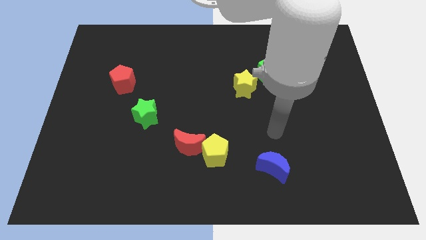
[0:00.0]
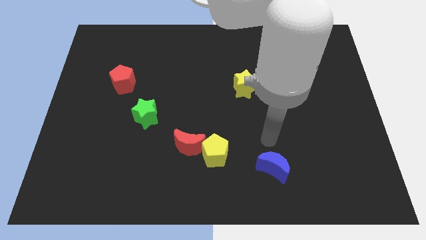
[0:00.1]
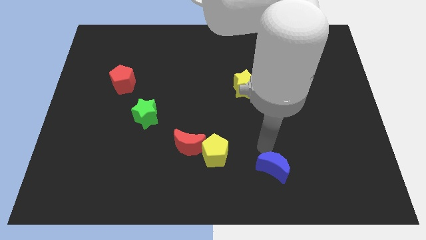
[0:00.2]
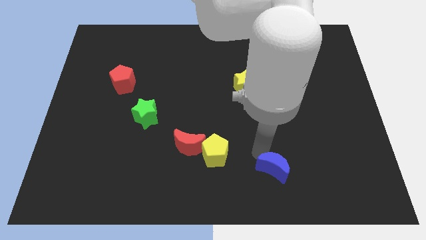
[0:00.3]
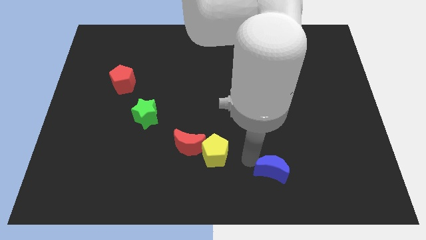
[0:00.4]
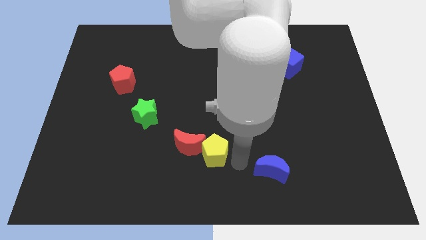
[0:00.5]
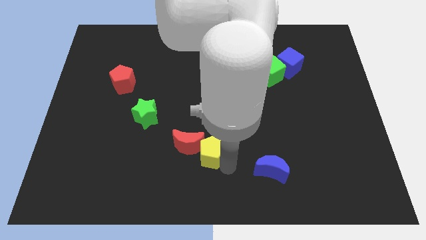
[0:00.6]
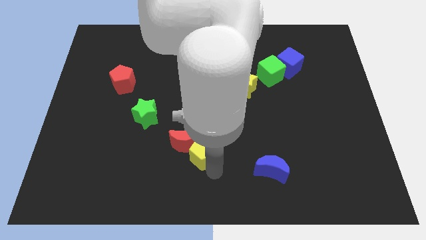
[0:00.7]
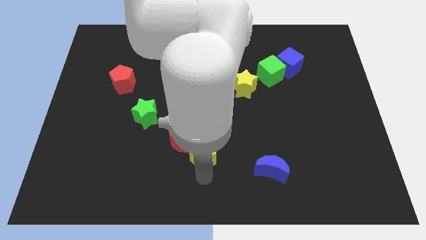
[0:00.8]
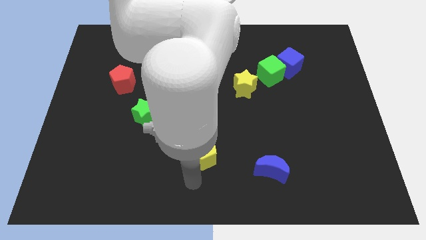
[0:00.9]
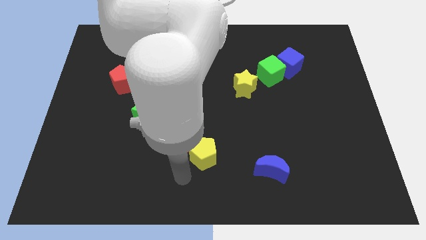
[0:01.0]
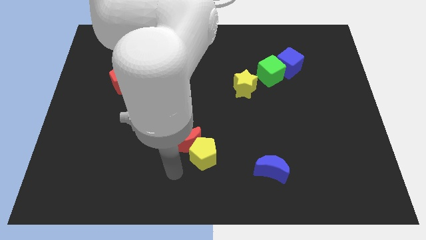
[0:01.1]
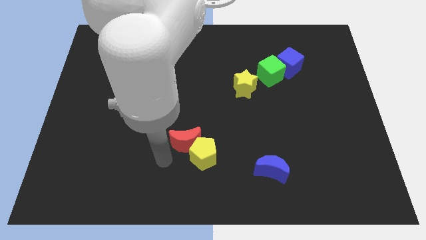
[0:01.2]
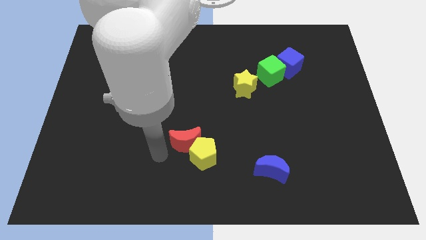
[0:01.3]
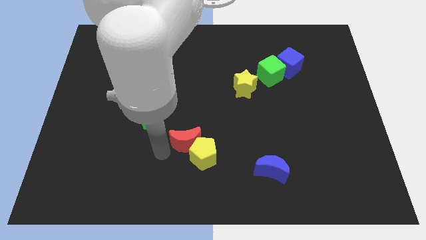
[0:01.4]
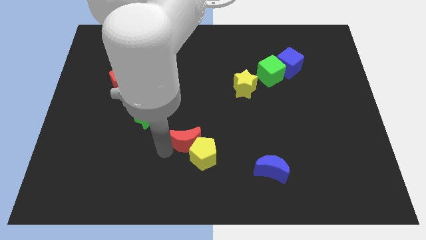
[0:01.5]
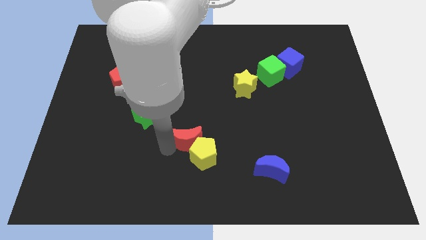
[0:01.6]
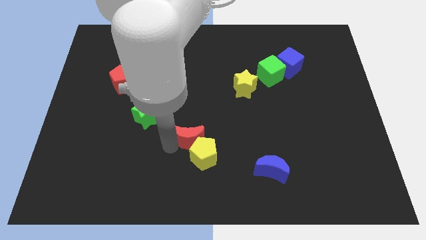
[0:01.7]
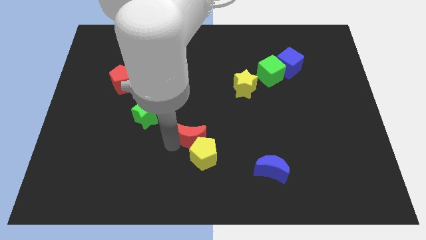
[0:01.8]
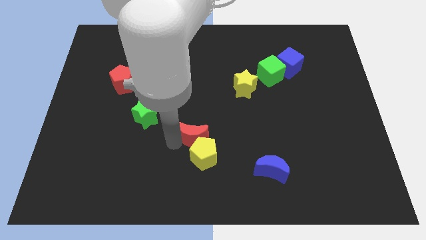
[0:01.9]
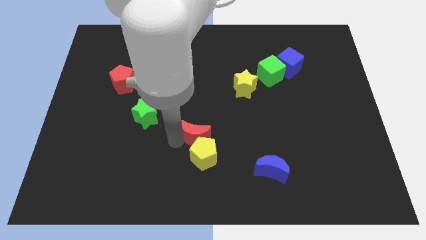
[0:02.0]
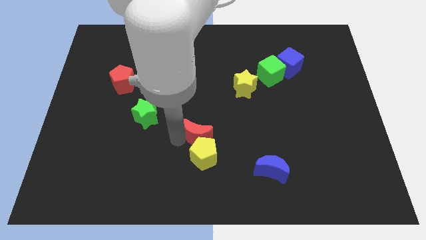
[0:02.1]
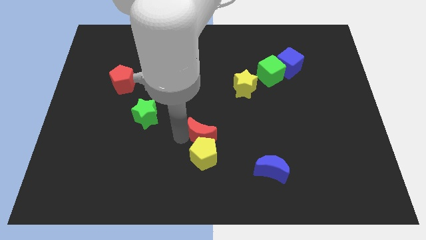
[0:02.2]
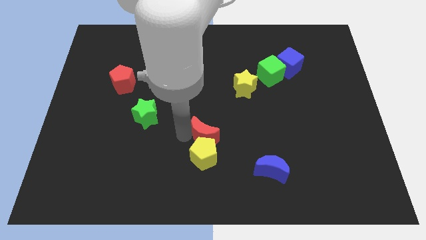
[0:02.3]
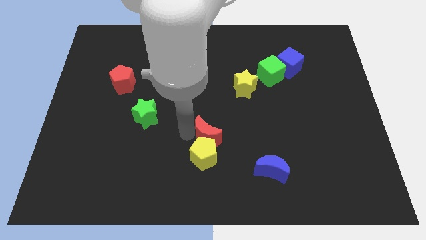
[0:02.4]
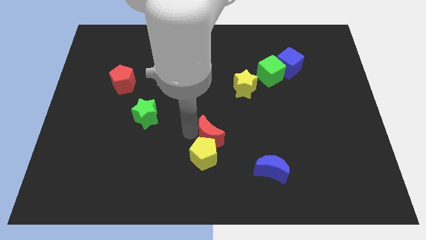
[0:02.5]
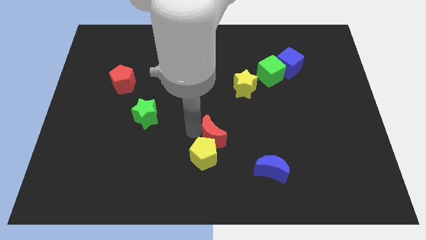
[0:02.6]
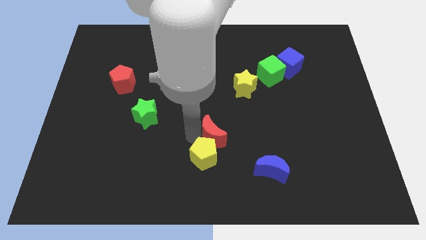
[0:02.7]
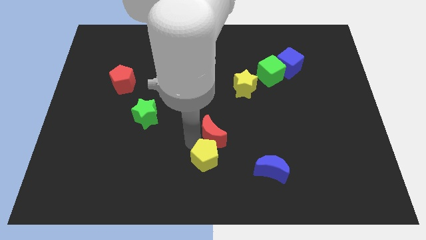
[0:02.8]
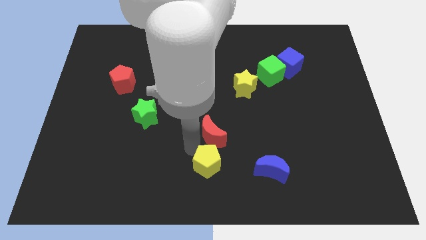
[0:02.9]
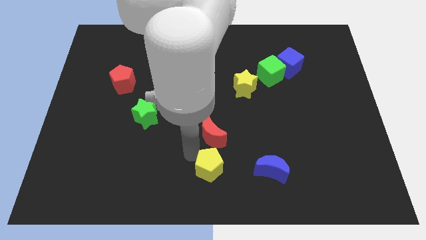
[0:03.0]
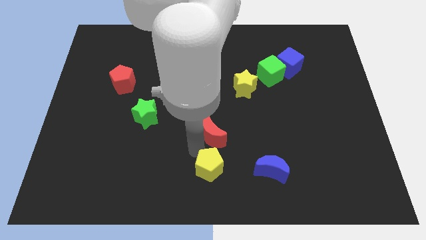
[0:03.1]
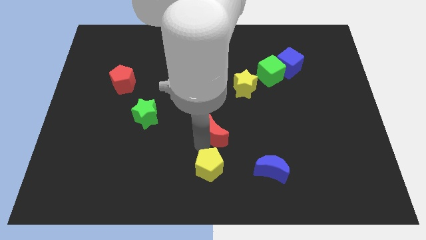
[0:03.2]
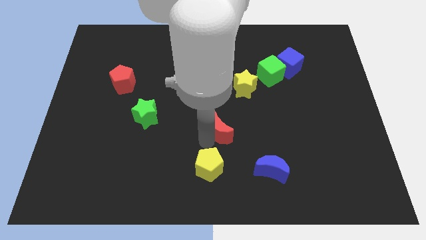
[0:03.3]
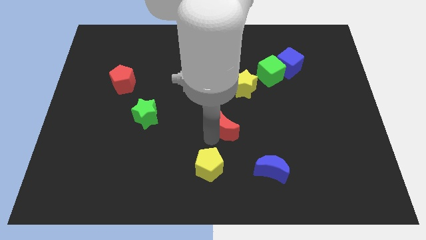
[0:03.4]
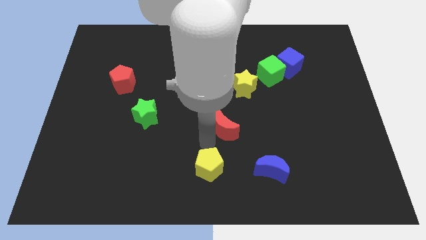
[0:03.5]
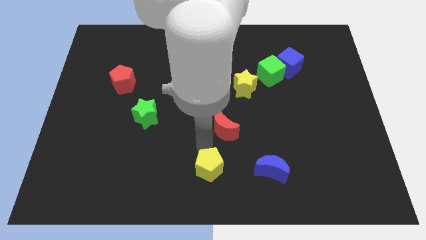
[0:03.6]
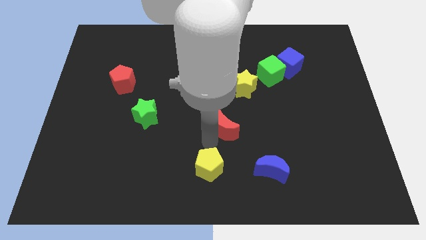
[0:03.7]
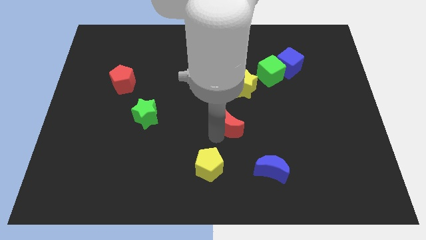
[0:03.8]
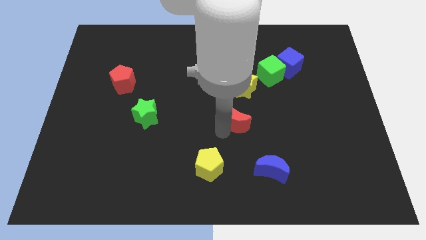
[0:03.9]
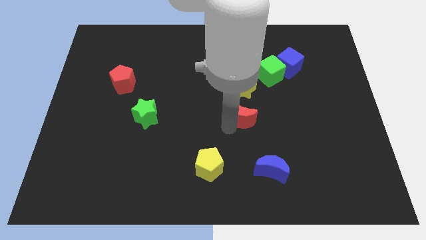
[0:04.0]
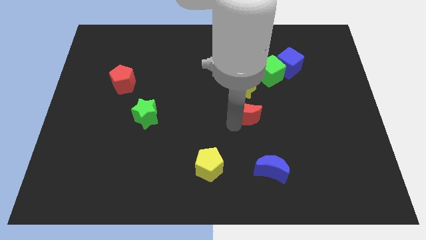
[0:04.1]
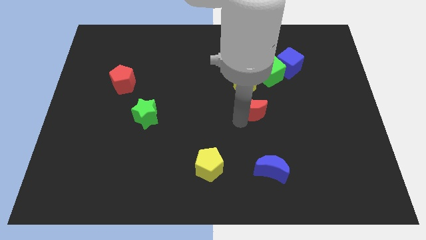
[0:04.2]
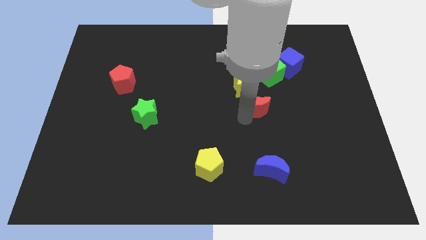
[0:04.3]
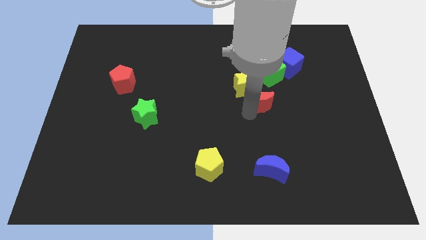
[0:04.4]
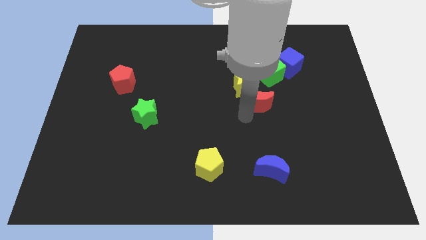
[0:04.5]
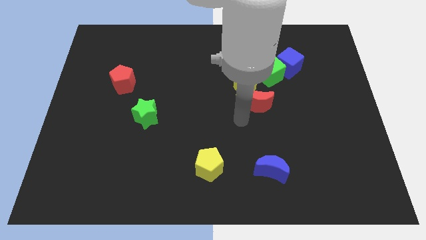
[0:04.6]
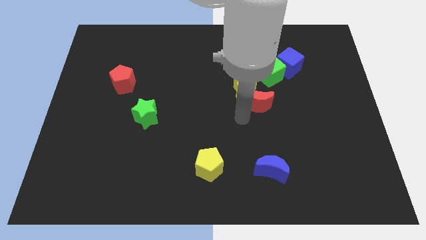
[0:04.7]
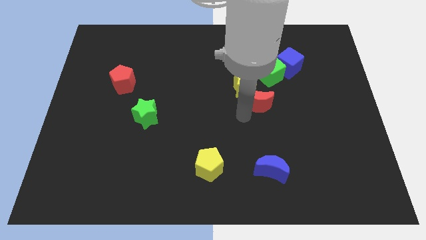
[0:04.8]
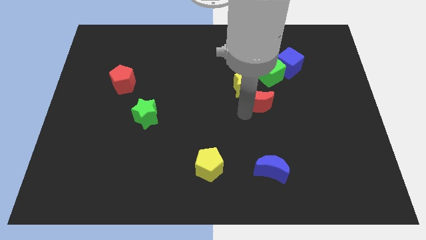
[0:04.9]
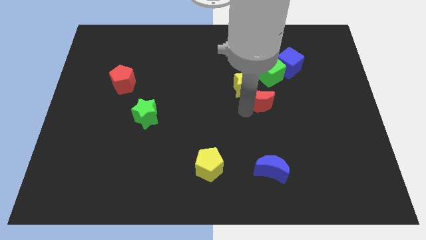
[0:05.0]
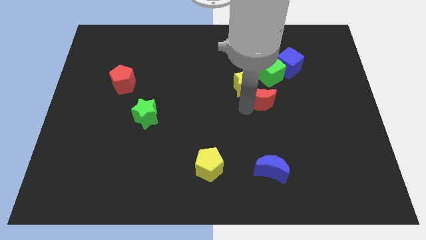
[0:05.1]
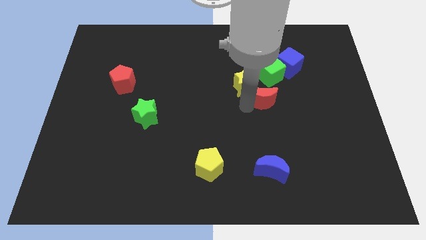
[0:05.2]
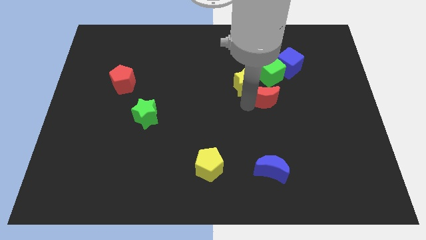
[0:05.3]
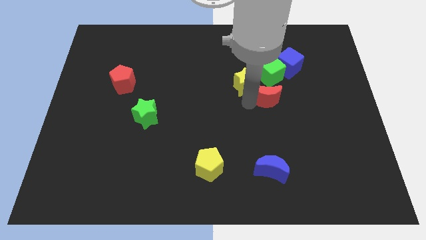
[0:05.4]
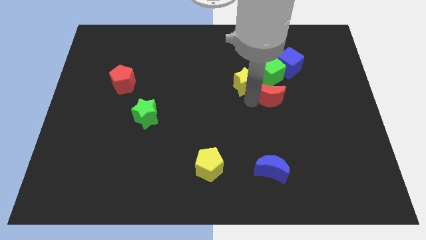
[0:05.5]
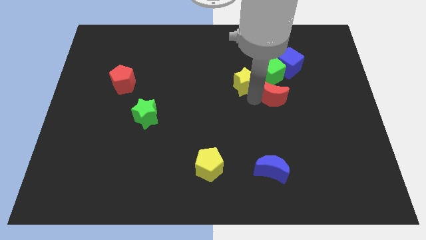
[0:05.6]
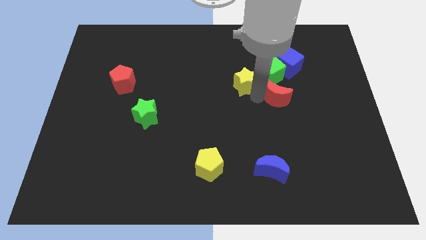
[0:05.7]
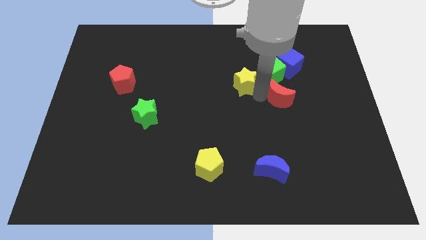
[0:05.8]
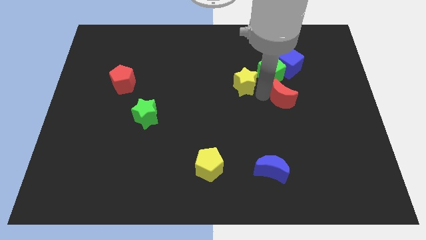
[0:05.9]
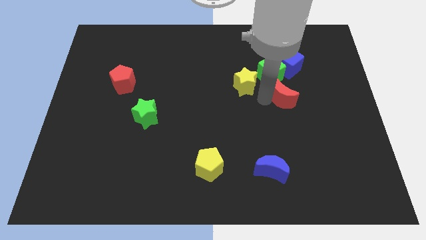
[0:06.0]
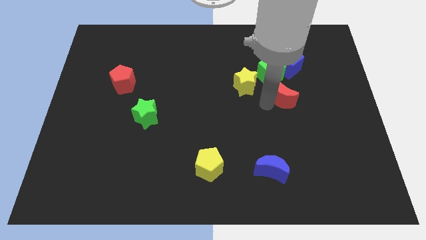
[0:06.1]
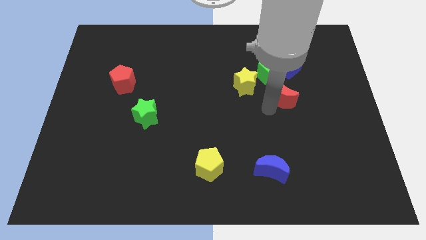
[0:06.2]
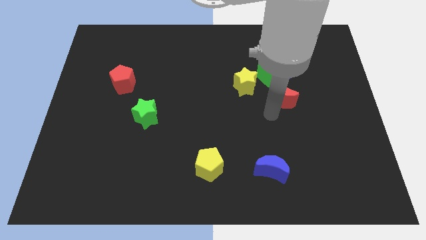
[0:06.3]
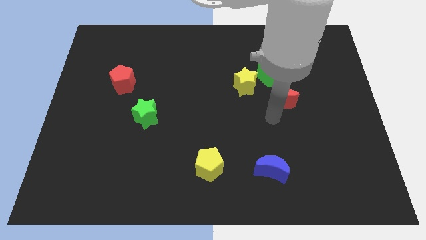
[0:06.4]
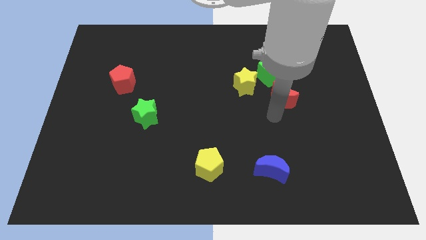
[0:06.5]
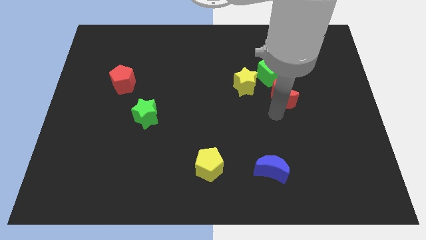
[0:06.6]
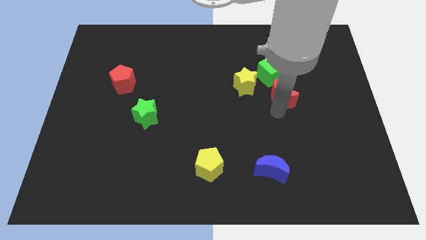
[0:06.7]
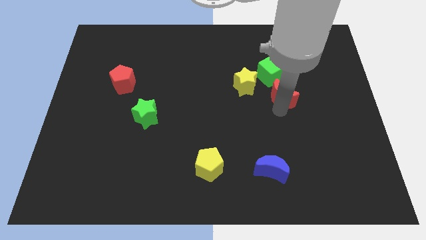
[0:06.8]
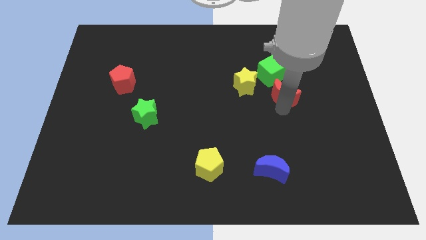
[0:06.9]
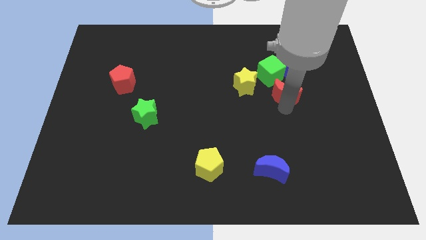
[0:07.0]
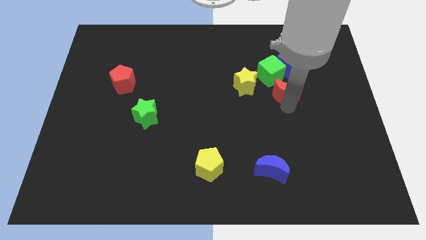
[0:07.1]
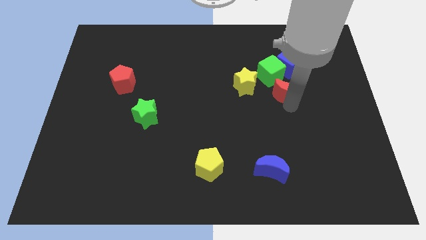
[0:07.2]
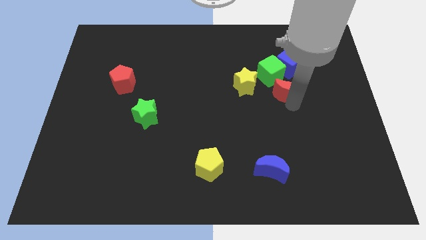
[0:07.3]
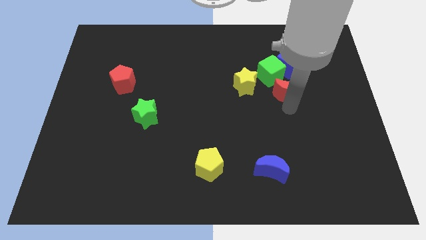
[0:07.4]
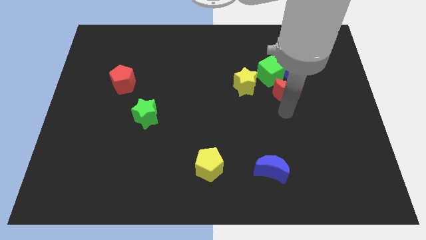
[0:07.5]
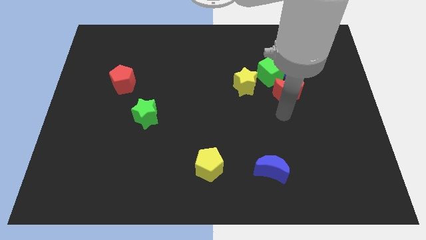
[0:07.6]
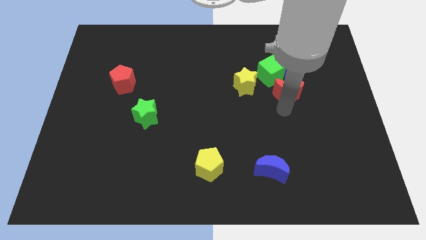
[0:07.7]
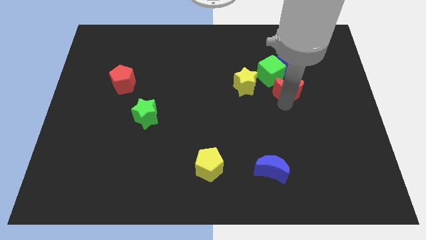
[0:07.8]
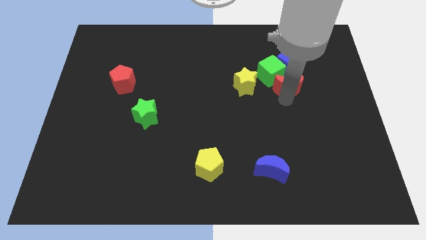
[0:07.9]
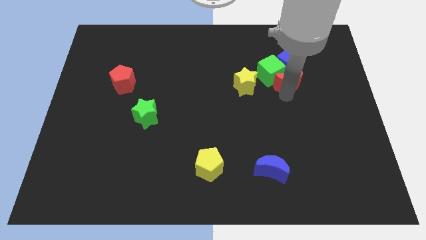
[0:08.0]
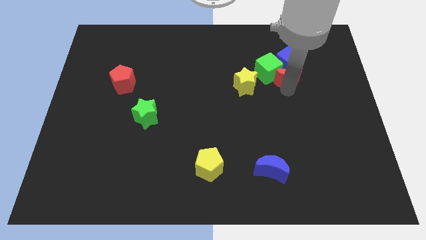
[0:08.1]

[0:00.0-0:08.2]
put the red moon towards the blue cube
